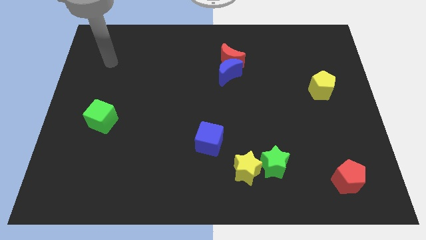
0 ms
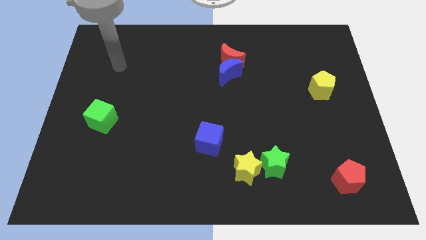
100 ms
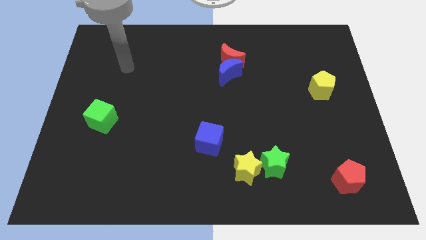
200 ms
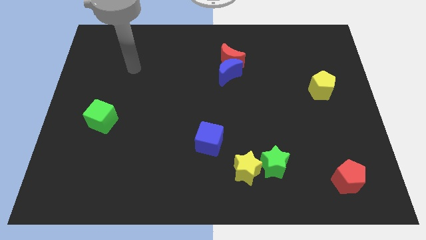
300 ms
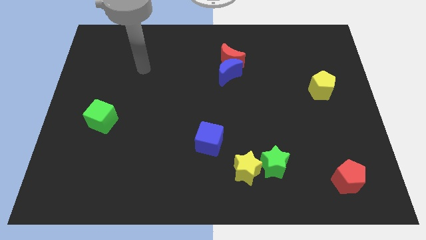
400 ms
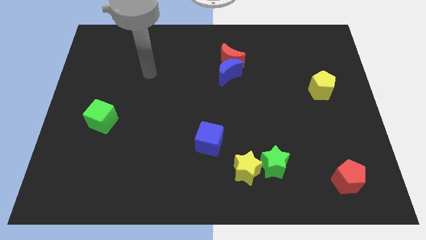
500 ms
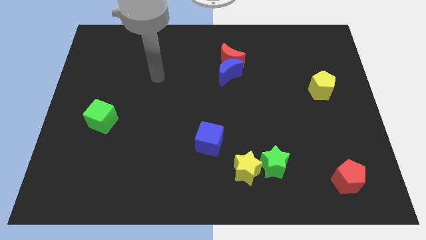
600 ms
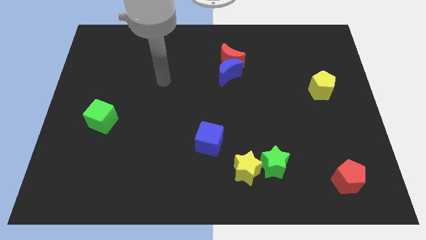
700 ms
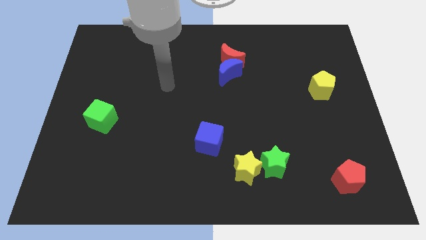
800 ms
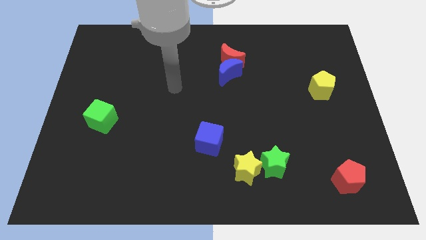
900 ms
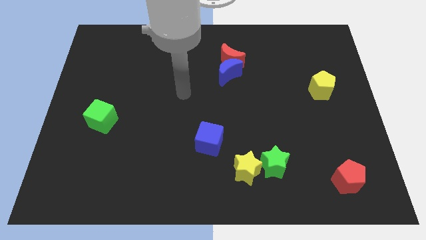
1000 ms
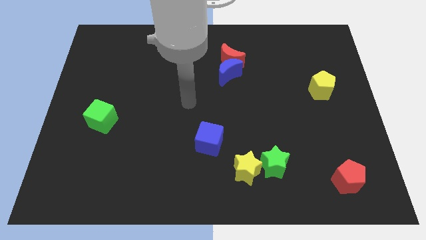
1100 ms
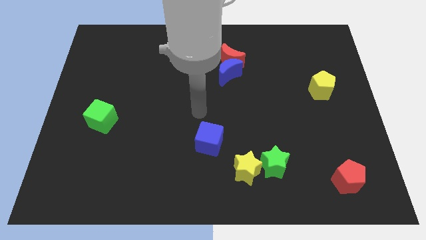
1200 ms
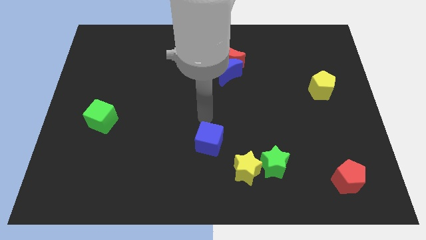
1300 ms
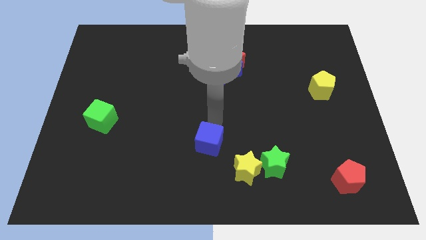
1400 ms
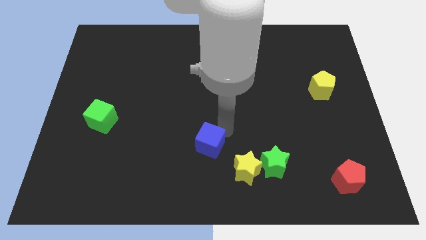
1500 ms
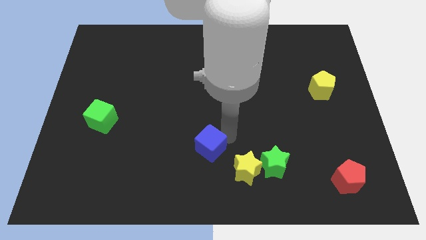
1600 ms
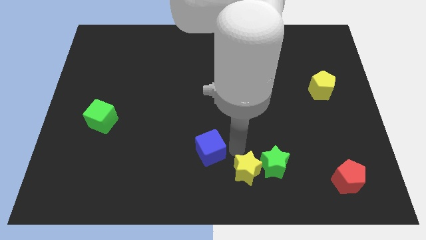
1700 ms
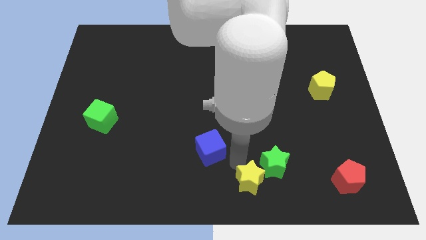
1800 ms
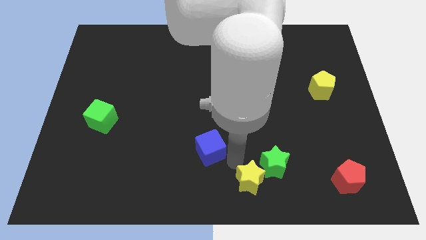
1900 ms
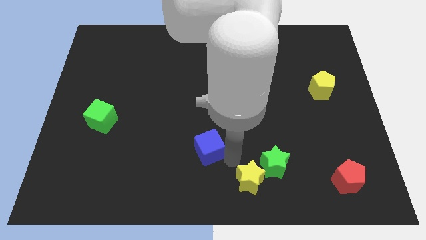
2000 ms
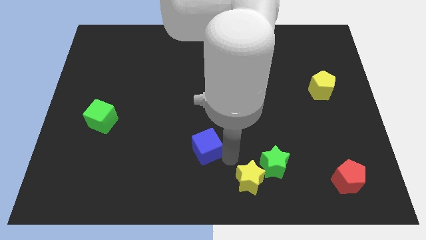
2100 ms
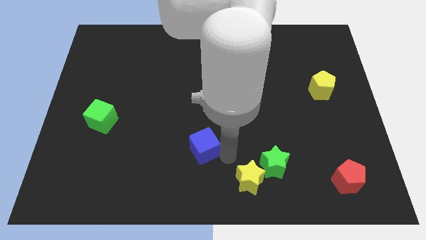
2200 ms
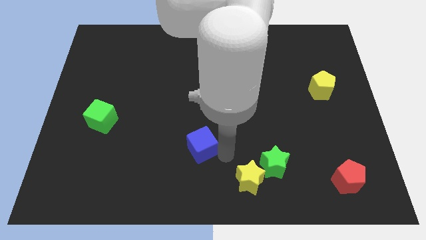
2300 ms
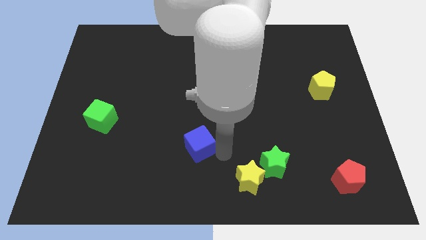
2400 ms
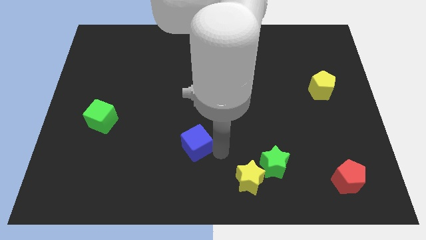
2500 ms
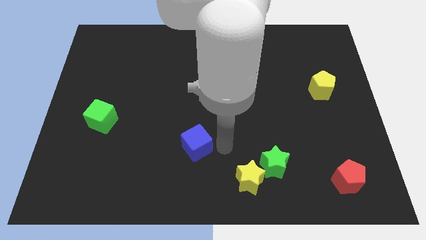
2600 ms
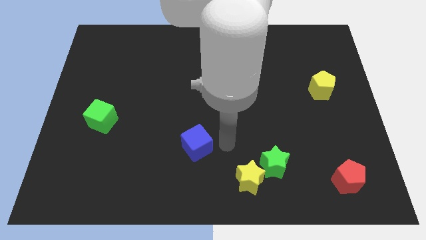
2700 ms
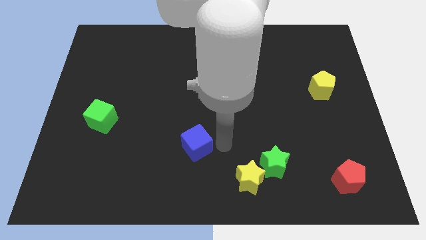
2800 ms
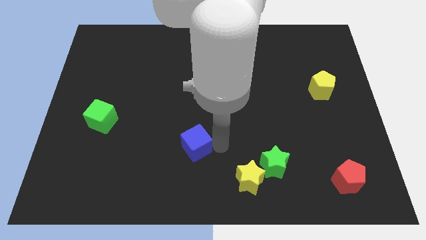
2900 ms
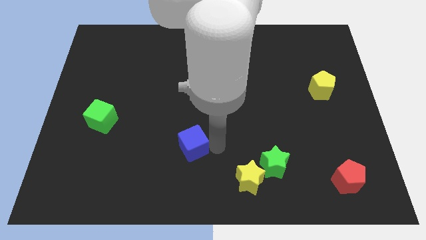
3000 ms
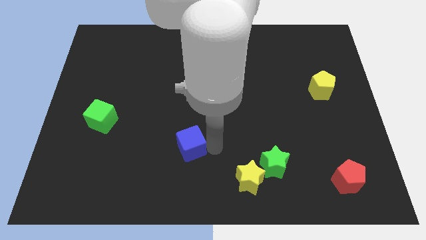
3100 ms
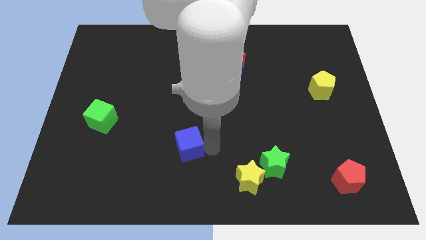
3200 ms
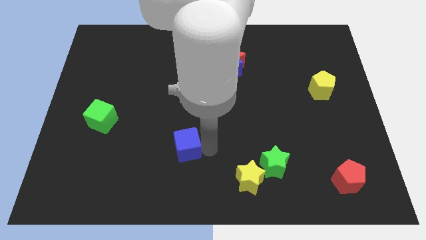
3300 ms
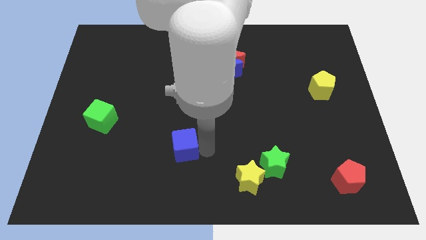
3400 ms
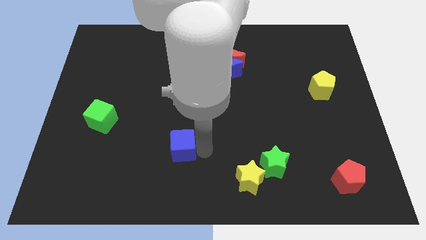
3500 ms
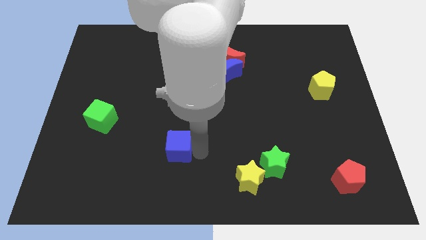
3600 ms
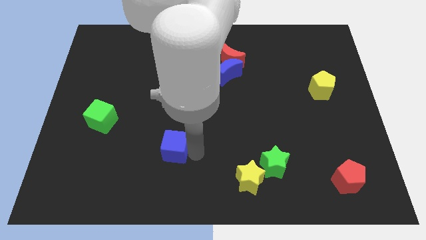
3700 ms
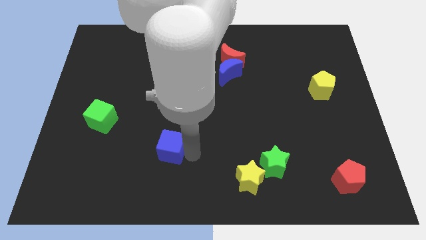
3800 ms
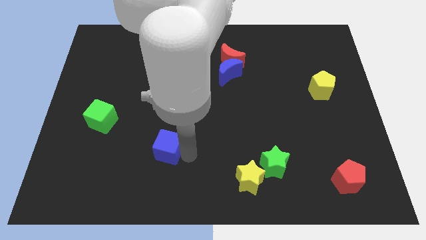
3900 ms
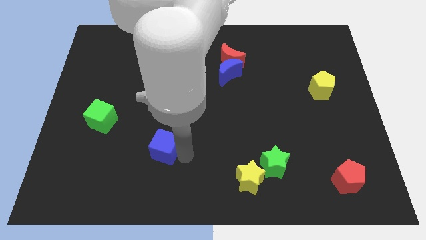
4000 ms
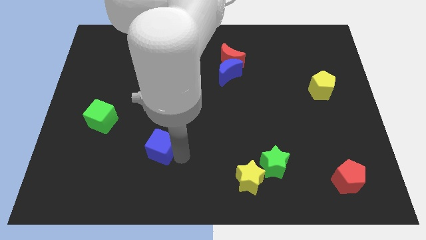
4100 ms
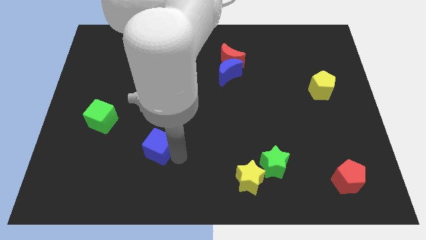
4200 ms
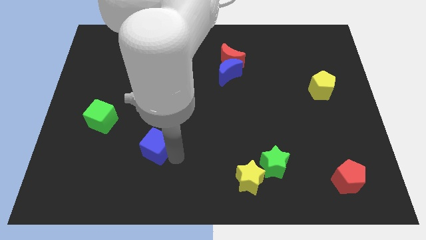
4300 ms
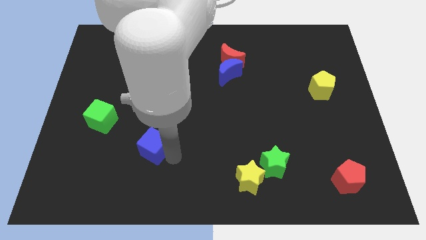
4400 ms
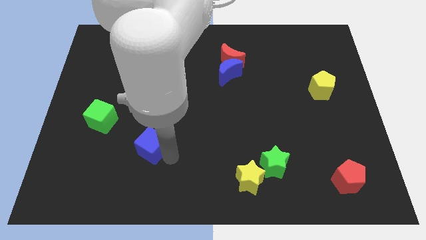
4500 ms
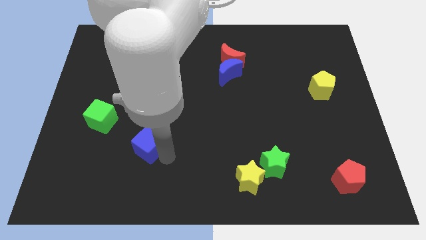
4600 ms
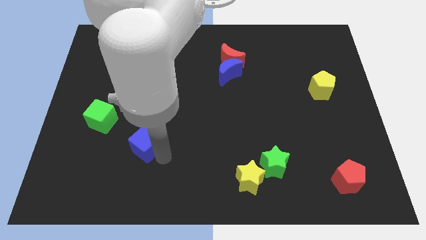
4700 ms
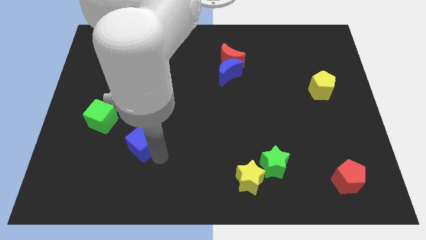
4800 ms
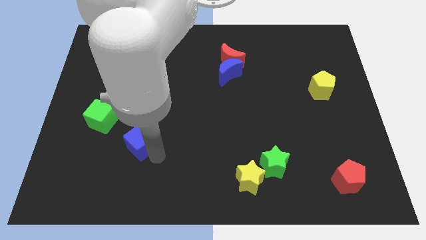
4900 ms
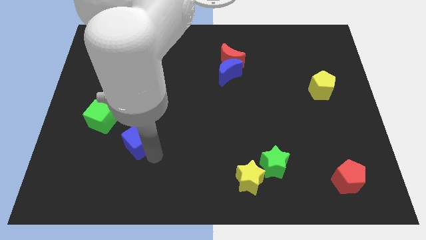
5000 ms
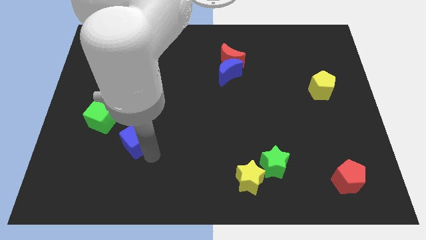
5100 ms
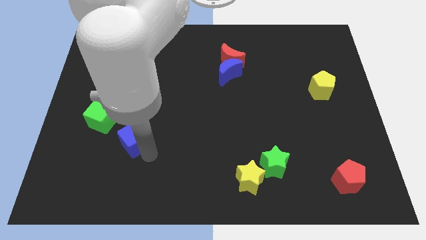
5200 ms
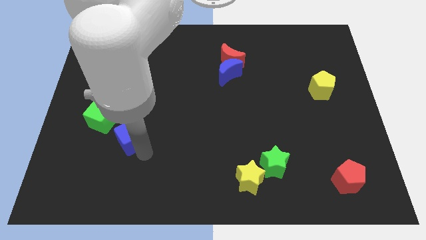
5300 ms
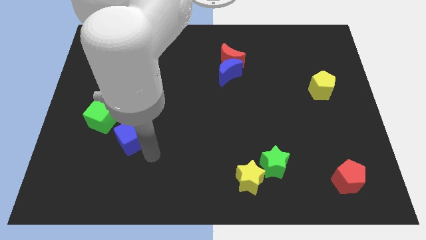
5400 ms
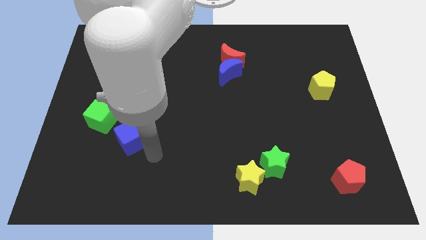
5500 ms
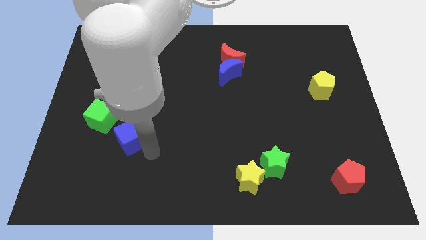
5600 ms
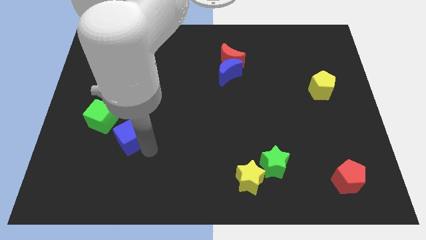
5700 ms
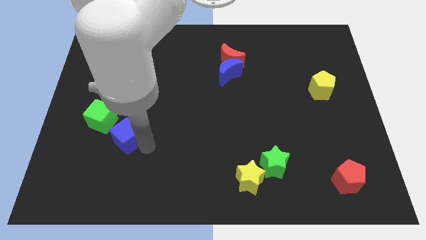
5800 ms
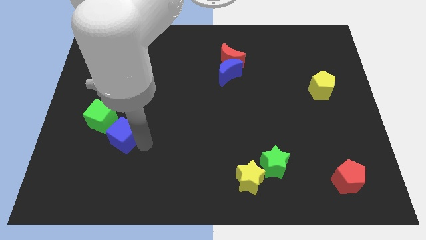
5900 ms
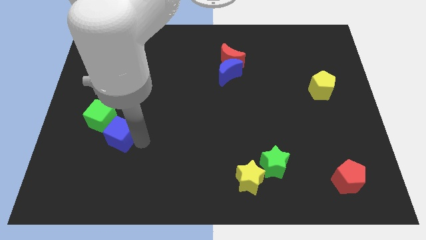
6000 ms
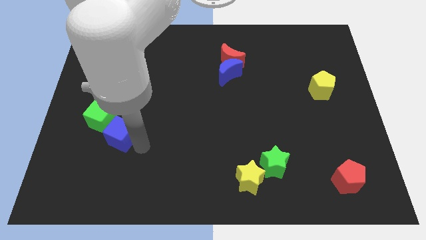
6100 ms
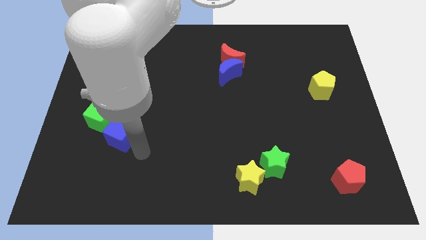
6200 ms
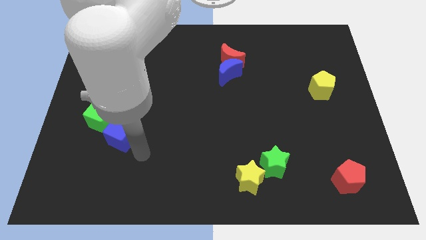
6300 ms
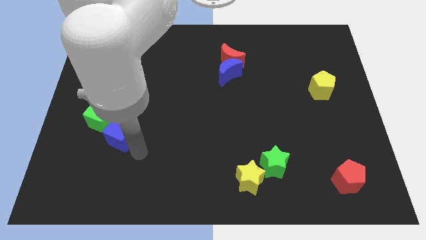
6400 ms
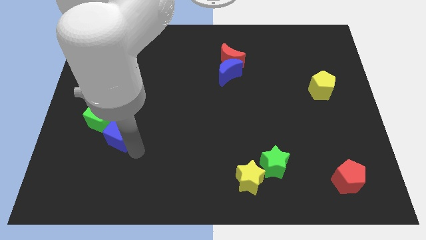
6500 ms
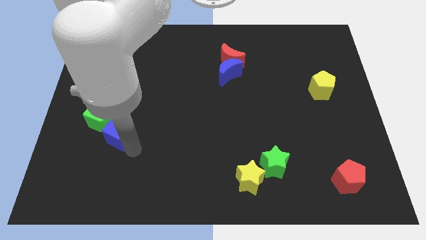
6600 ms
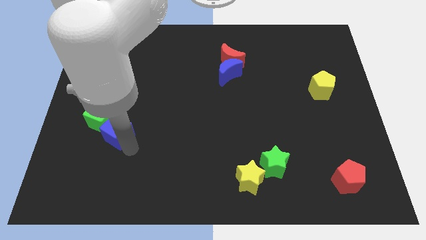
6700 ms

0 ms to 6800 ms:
slide the blue cube close to the green cube

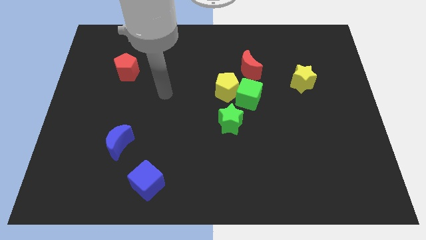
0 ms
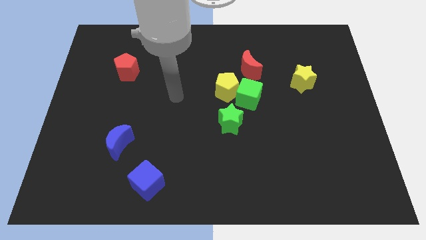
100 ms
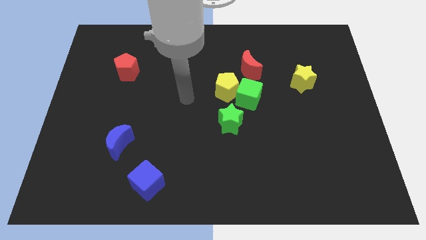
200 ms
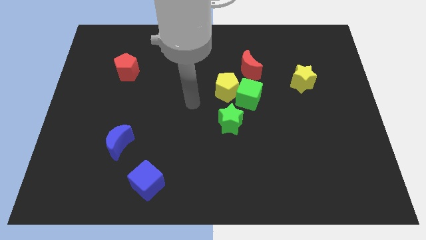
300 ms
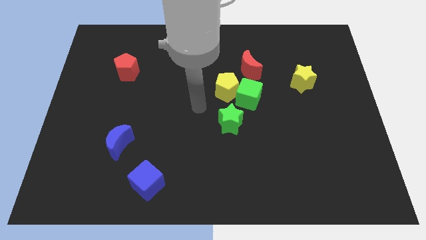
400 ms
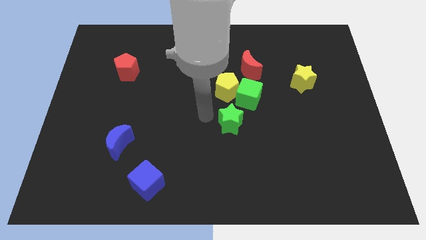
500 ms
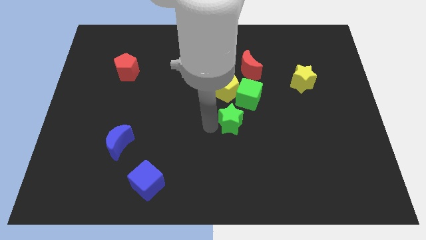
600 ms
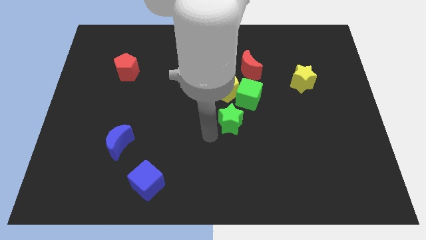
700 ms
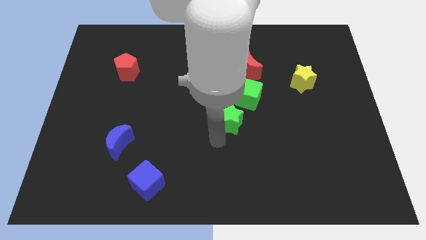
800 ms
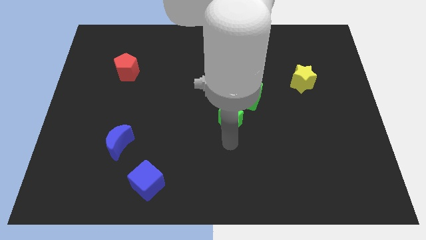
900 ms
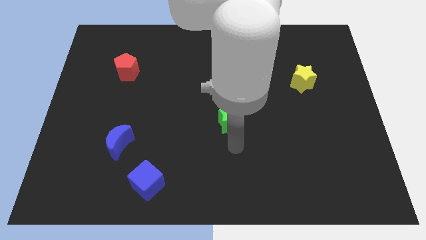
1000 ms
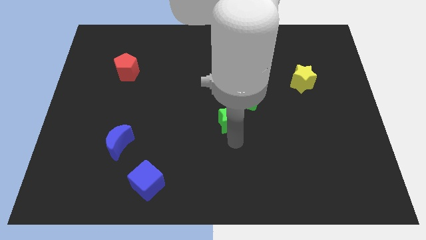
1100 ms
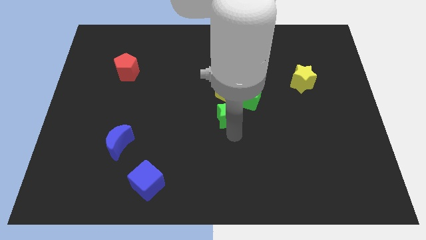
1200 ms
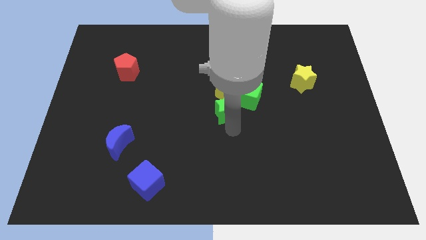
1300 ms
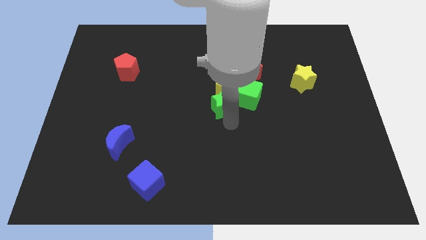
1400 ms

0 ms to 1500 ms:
put the green star to the yellow pentagon
